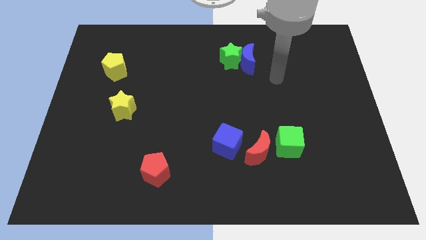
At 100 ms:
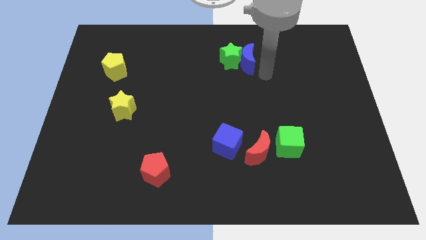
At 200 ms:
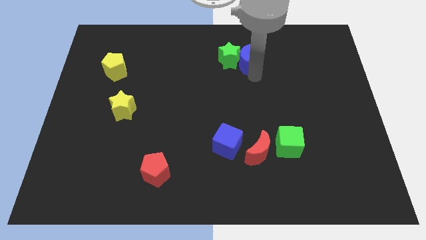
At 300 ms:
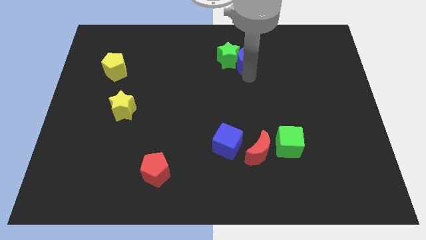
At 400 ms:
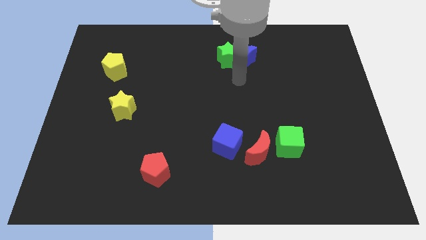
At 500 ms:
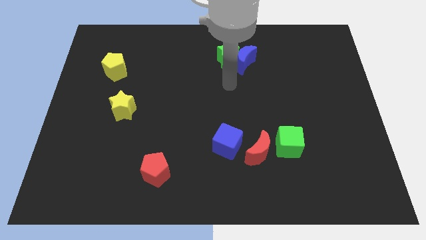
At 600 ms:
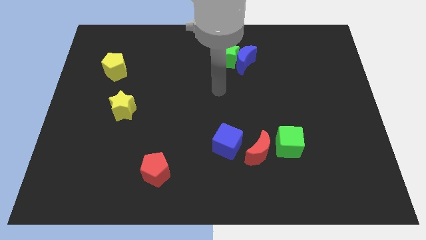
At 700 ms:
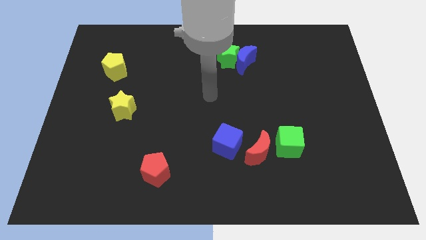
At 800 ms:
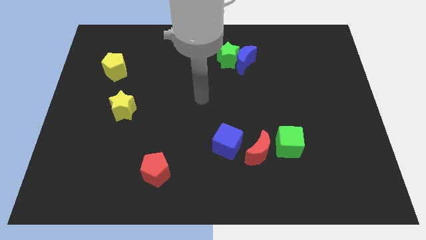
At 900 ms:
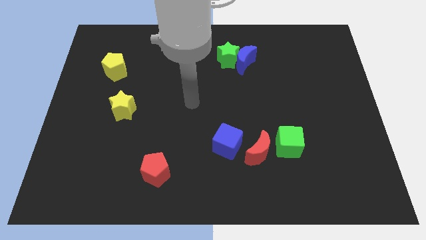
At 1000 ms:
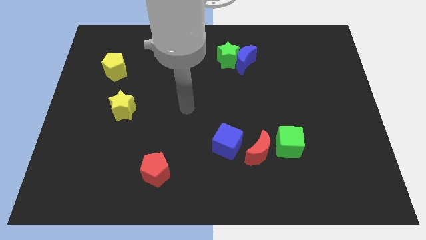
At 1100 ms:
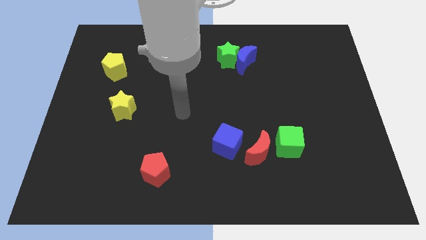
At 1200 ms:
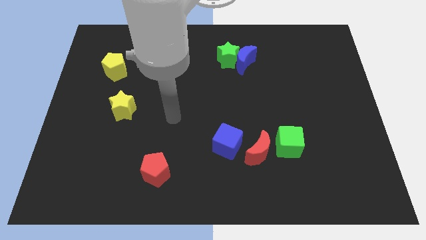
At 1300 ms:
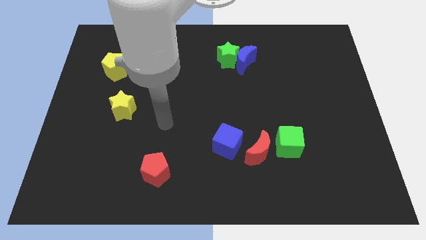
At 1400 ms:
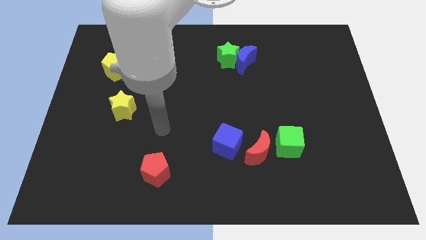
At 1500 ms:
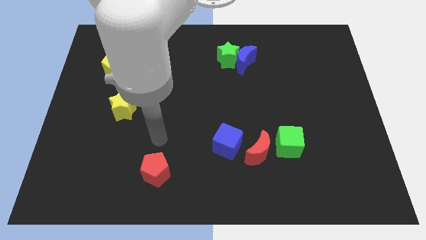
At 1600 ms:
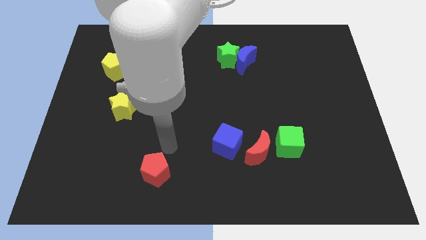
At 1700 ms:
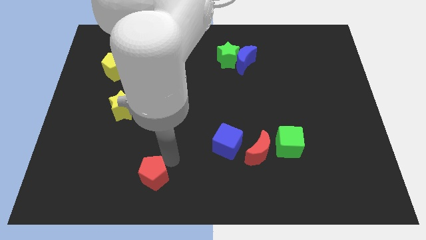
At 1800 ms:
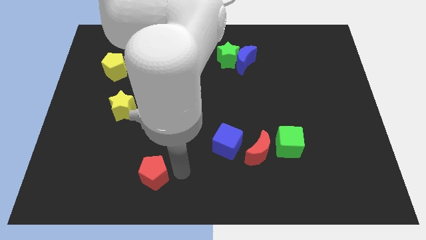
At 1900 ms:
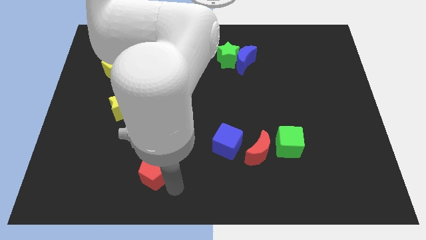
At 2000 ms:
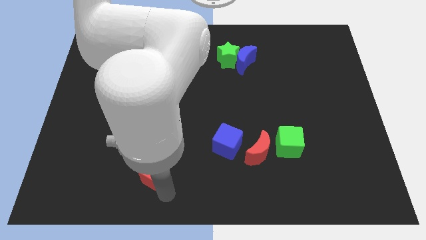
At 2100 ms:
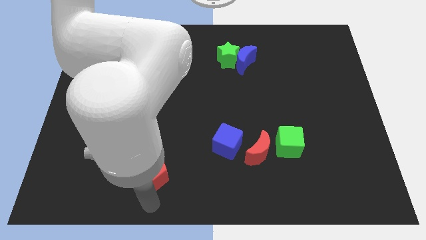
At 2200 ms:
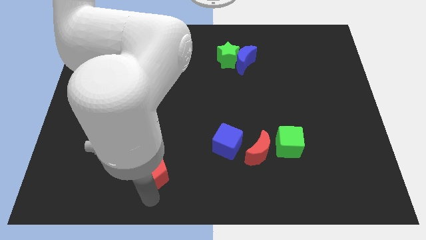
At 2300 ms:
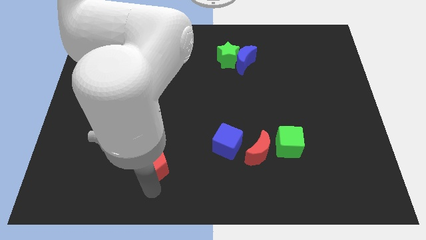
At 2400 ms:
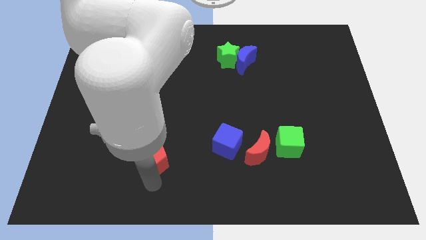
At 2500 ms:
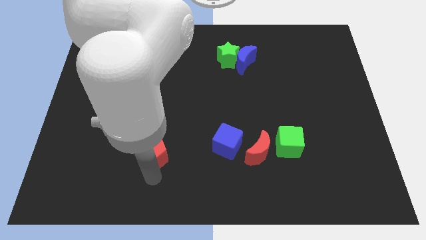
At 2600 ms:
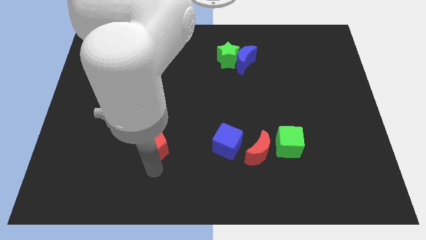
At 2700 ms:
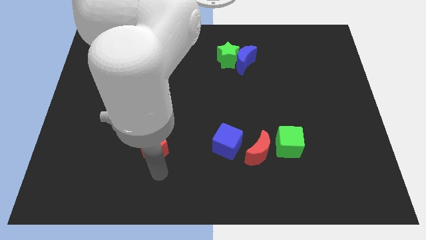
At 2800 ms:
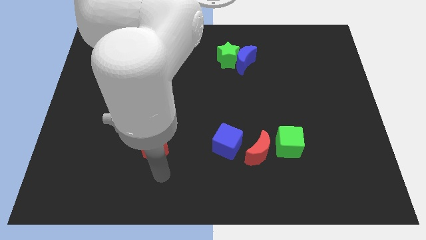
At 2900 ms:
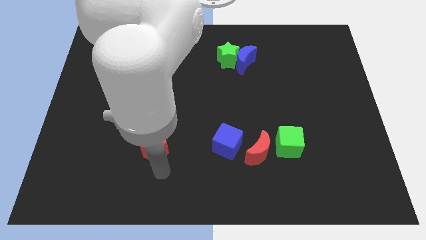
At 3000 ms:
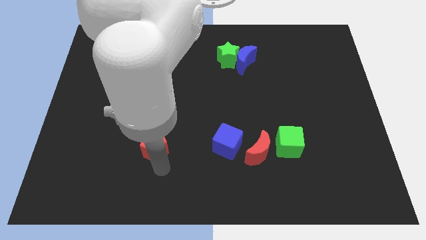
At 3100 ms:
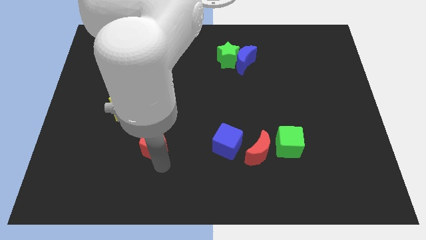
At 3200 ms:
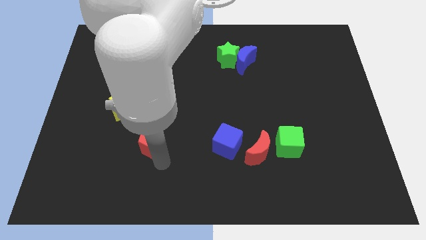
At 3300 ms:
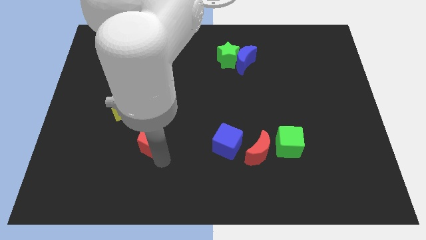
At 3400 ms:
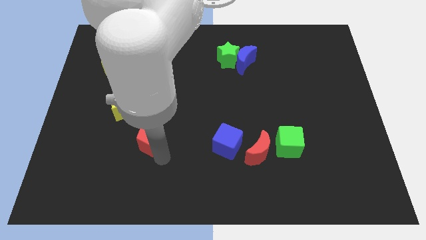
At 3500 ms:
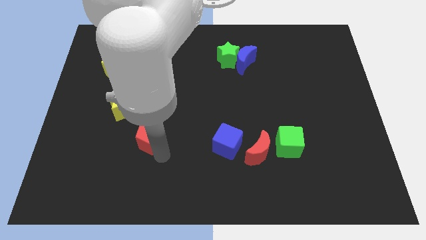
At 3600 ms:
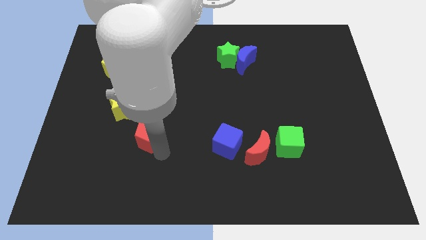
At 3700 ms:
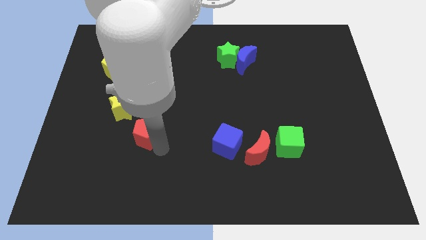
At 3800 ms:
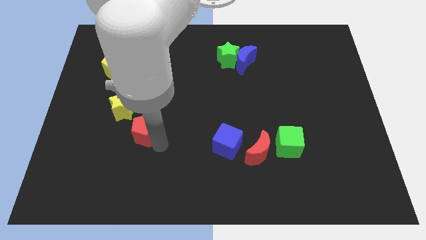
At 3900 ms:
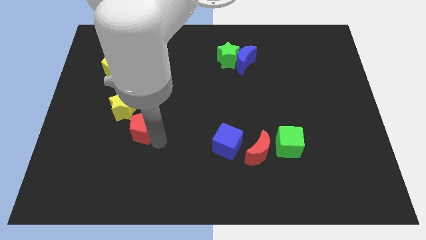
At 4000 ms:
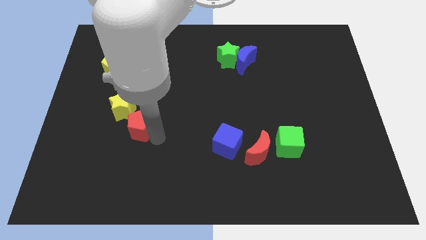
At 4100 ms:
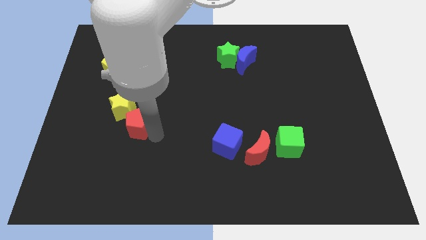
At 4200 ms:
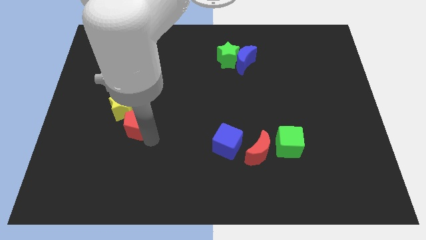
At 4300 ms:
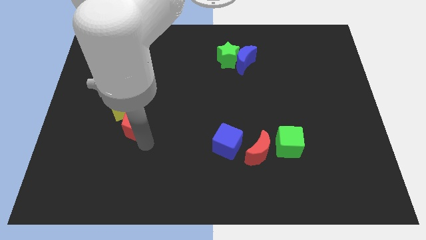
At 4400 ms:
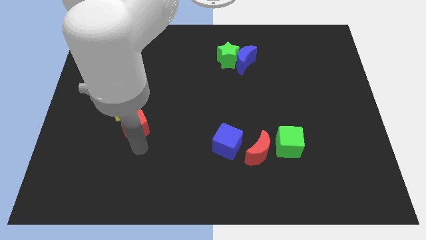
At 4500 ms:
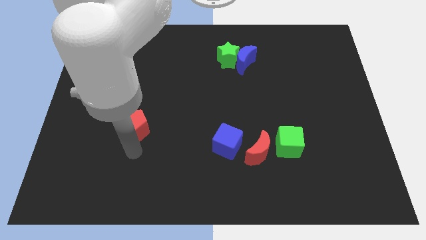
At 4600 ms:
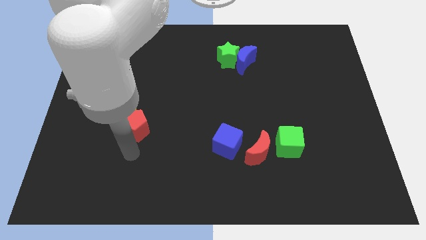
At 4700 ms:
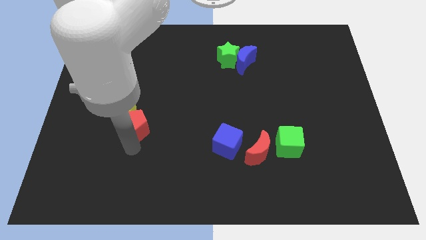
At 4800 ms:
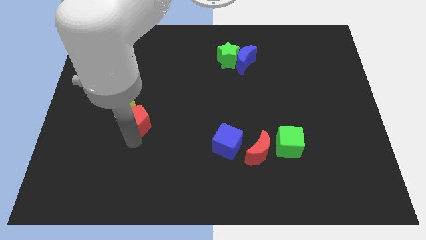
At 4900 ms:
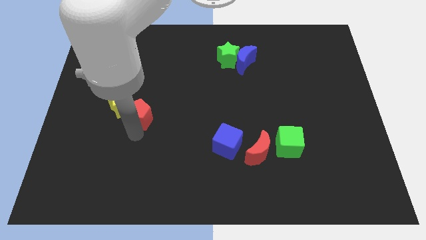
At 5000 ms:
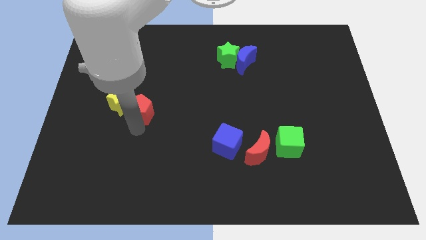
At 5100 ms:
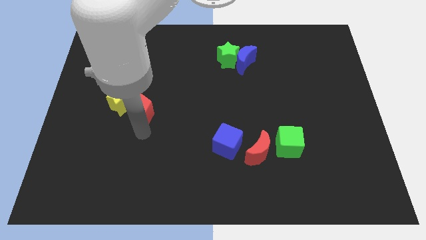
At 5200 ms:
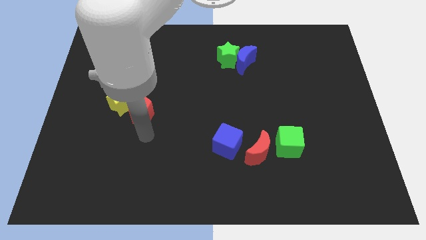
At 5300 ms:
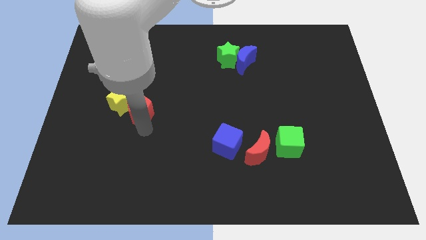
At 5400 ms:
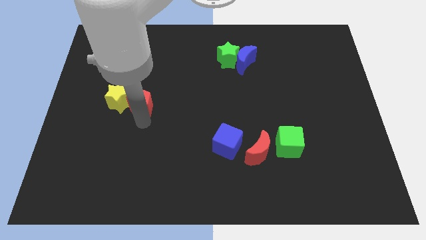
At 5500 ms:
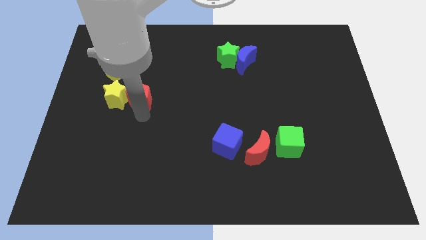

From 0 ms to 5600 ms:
push the red pentagon diagonally down and to the right of the yellow pentagon
